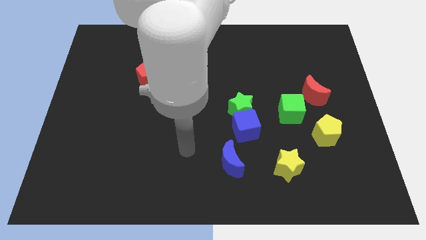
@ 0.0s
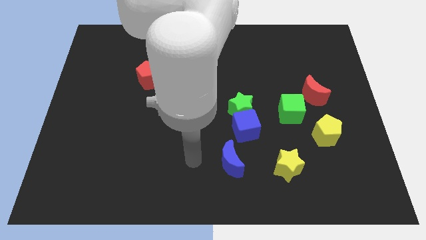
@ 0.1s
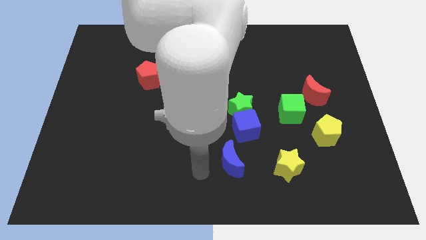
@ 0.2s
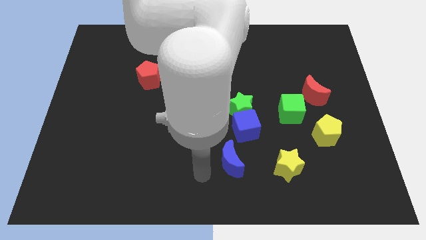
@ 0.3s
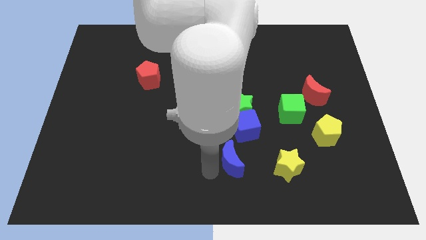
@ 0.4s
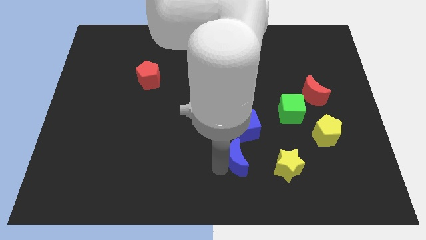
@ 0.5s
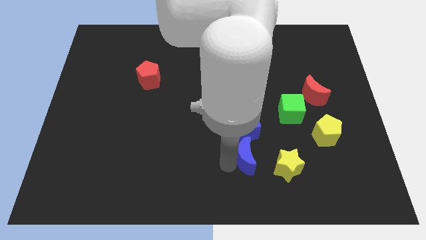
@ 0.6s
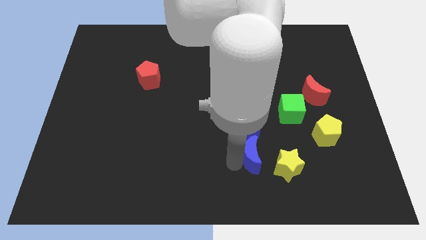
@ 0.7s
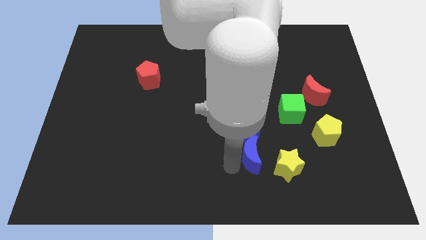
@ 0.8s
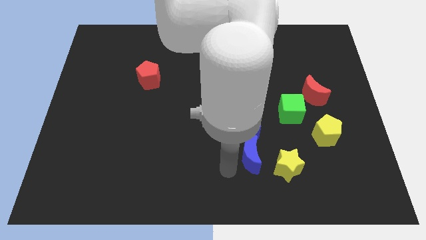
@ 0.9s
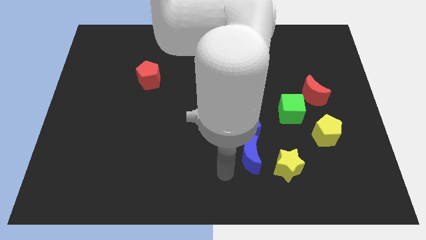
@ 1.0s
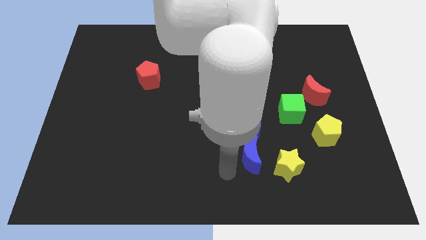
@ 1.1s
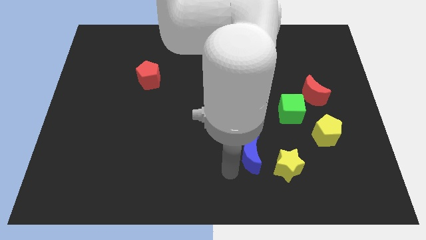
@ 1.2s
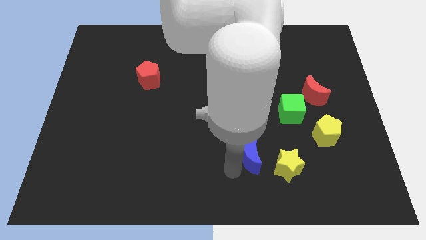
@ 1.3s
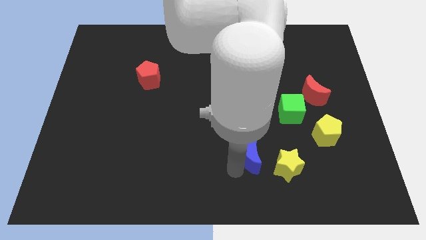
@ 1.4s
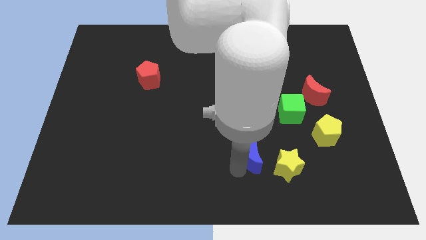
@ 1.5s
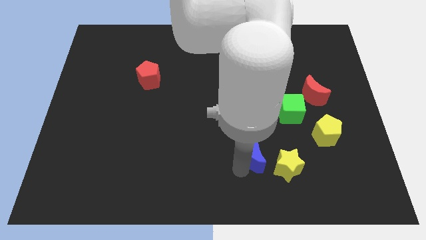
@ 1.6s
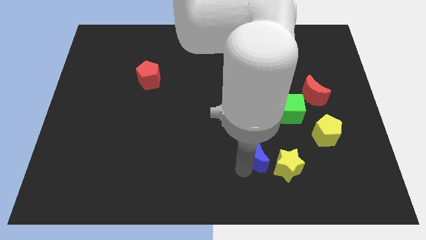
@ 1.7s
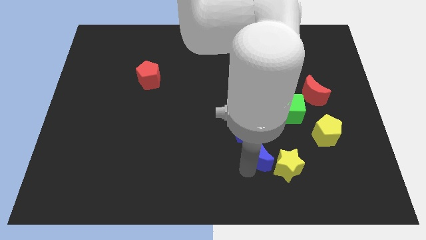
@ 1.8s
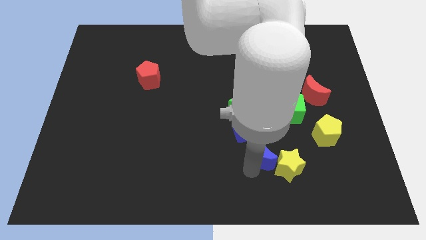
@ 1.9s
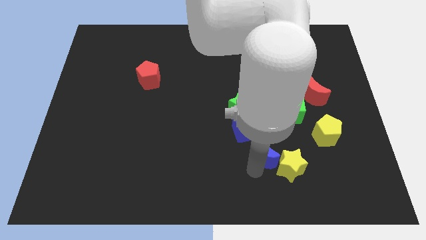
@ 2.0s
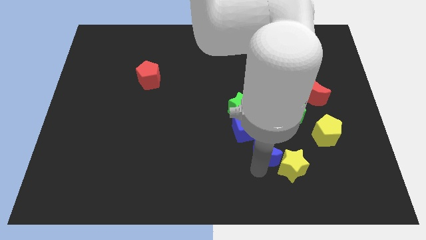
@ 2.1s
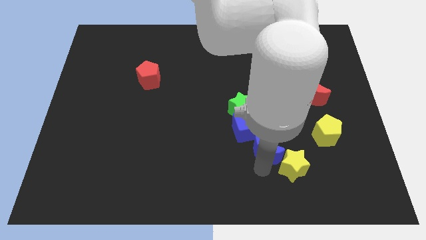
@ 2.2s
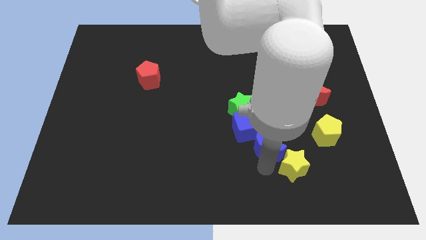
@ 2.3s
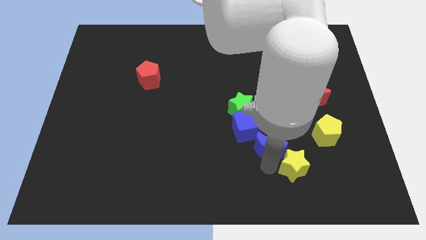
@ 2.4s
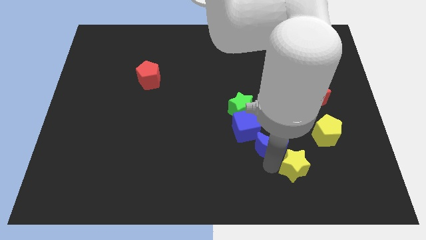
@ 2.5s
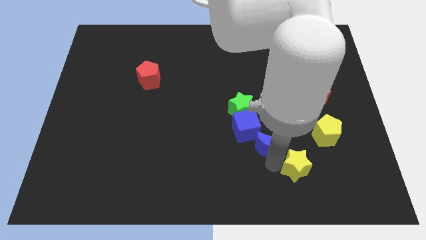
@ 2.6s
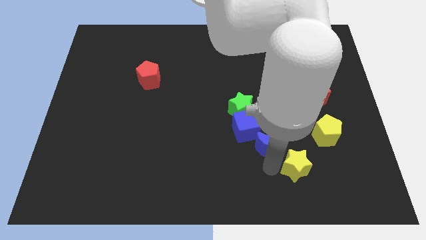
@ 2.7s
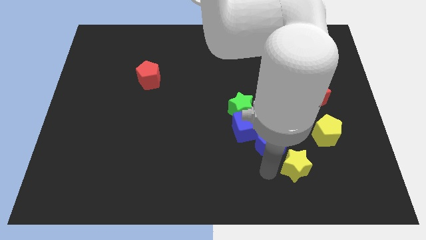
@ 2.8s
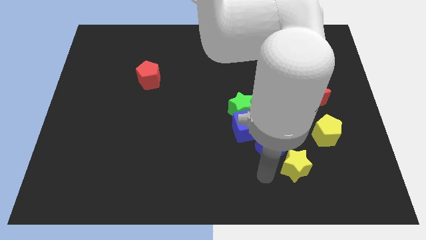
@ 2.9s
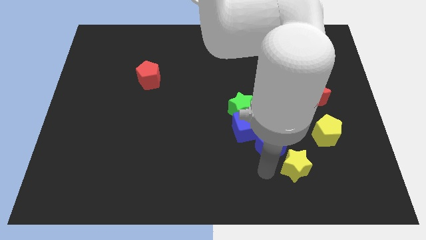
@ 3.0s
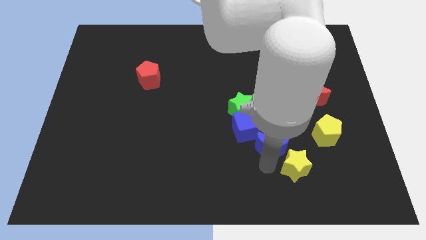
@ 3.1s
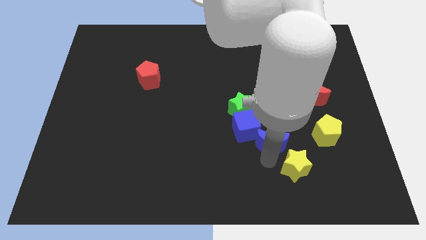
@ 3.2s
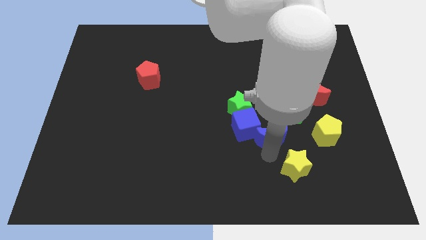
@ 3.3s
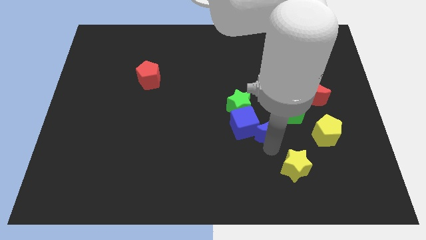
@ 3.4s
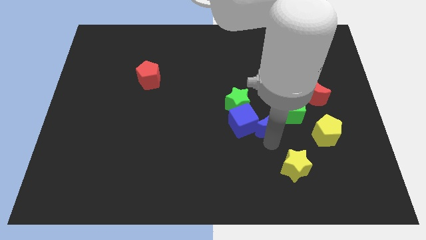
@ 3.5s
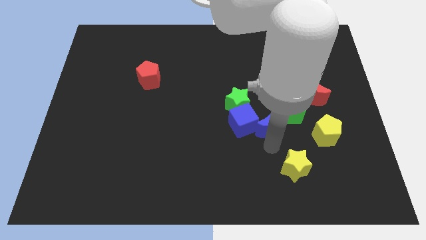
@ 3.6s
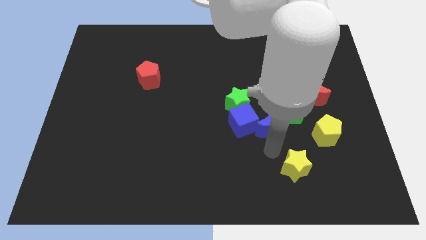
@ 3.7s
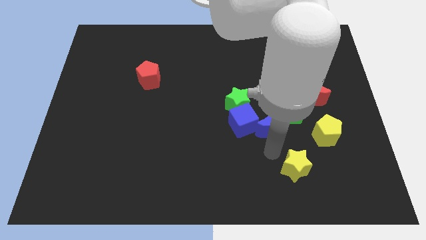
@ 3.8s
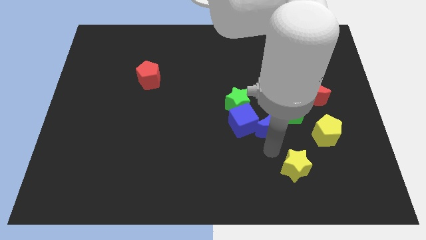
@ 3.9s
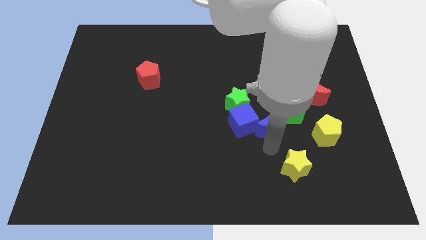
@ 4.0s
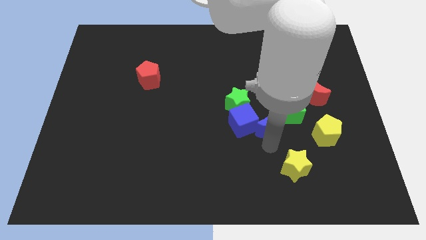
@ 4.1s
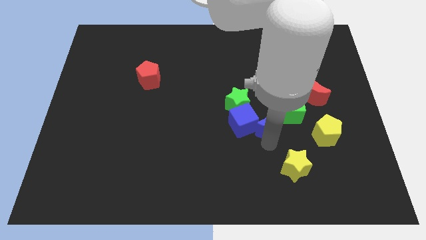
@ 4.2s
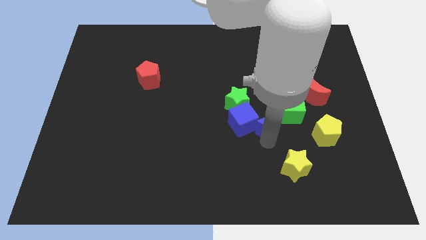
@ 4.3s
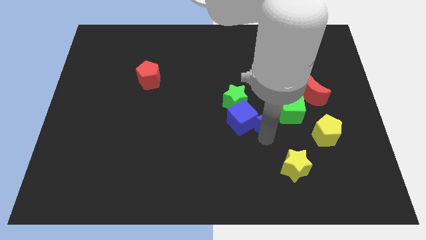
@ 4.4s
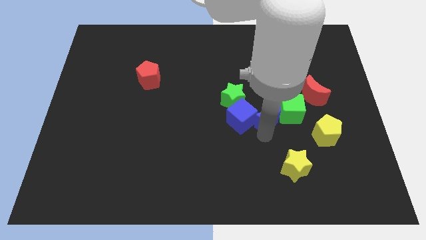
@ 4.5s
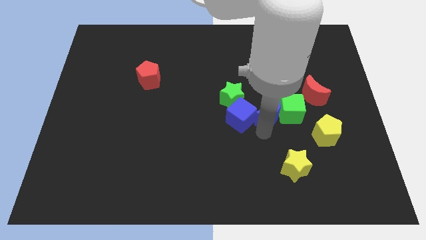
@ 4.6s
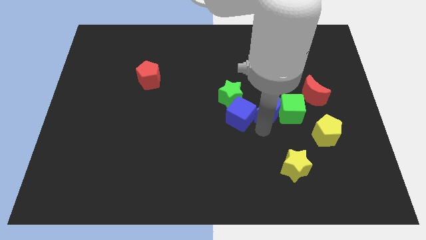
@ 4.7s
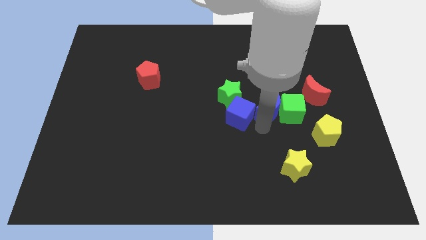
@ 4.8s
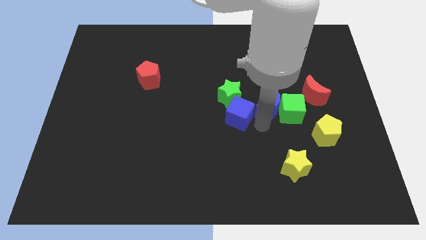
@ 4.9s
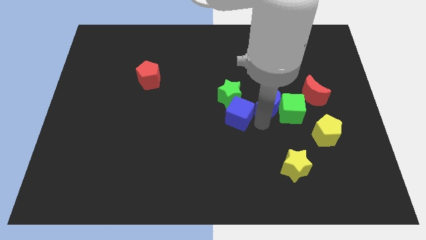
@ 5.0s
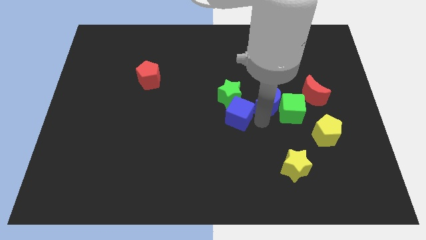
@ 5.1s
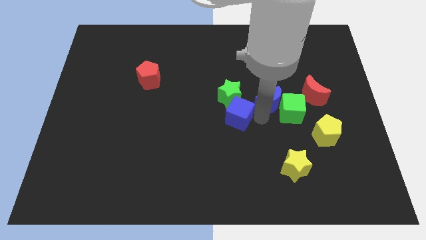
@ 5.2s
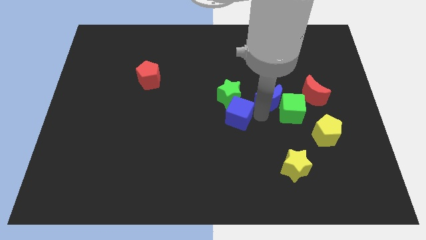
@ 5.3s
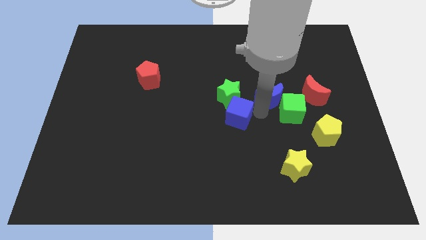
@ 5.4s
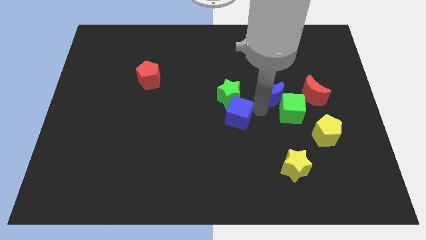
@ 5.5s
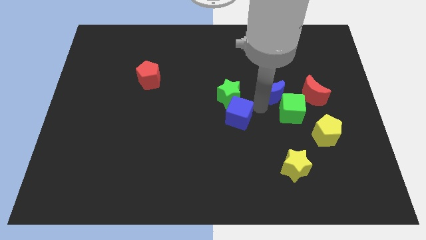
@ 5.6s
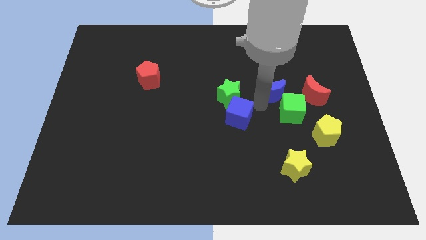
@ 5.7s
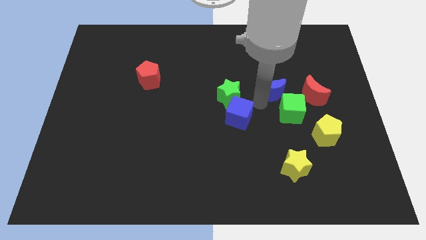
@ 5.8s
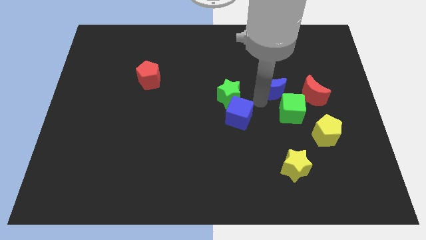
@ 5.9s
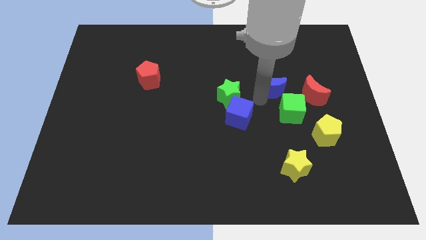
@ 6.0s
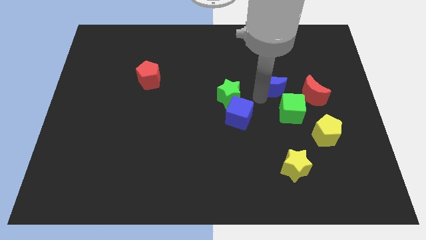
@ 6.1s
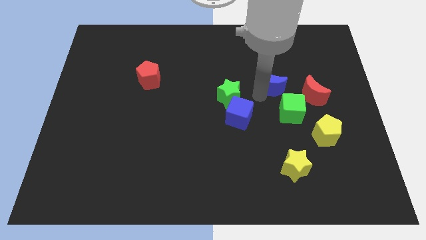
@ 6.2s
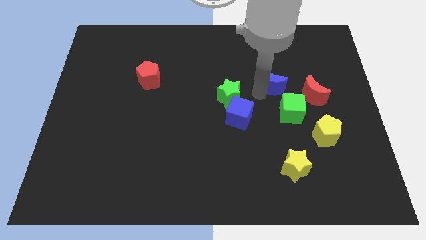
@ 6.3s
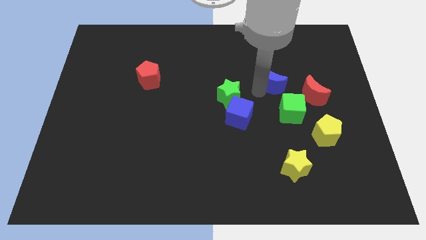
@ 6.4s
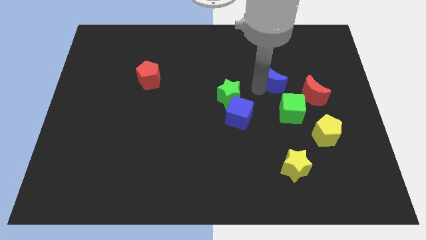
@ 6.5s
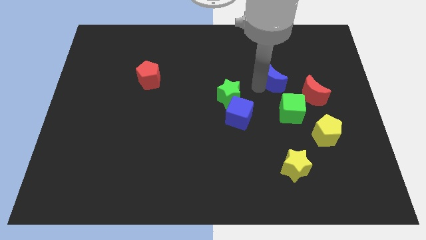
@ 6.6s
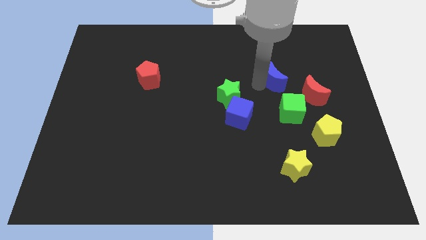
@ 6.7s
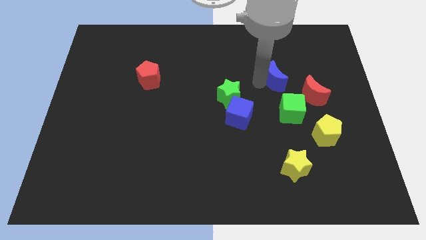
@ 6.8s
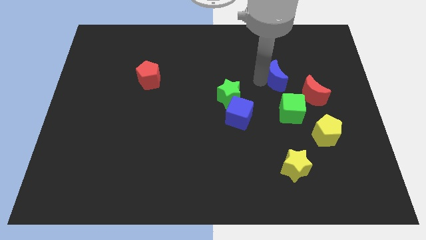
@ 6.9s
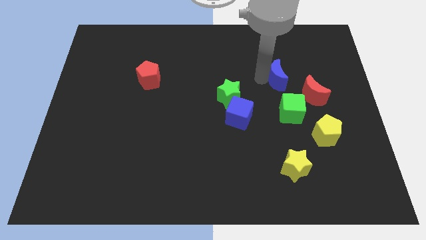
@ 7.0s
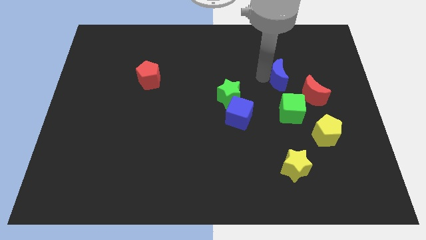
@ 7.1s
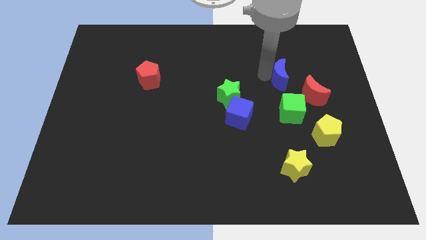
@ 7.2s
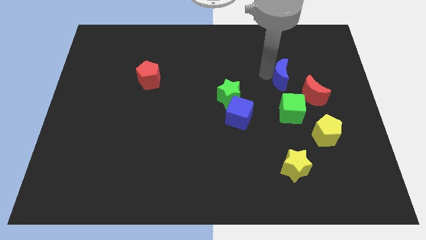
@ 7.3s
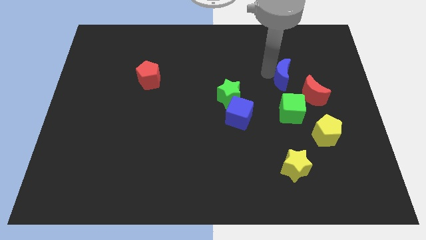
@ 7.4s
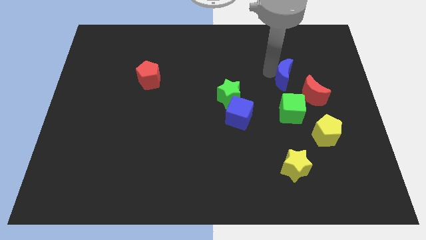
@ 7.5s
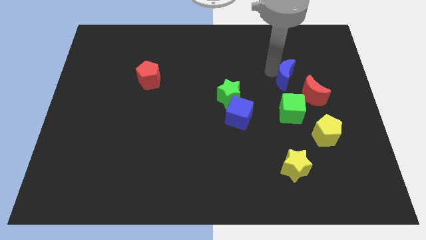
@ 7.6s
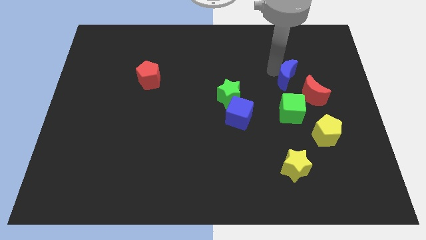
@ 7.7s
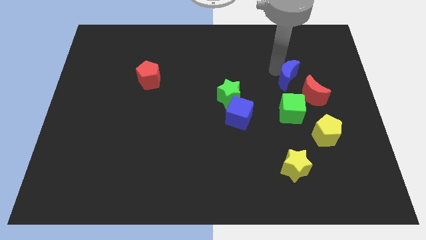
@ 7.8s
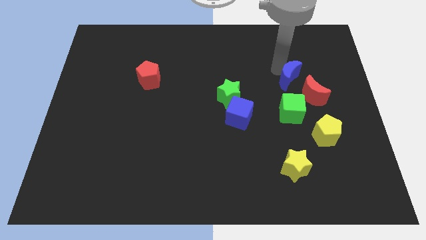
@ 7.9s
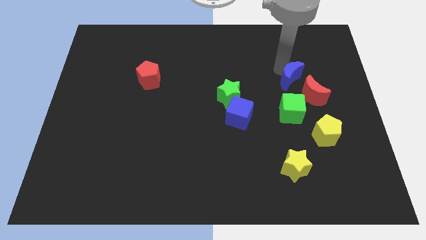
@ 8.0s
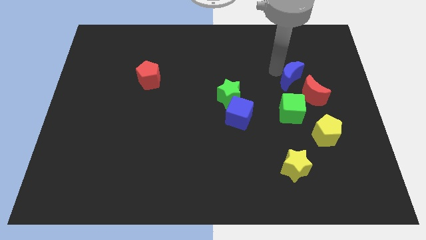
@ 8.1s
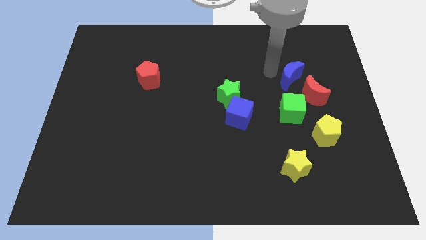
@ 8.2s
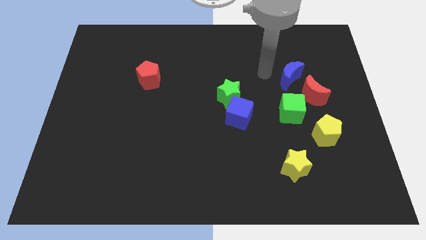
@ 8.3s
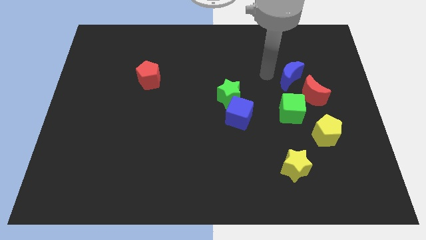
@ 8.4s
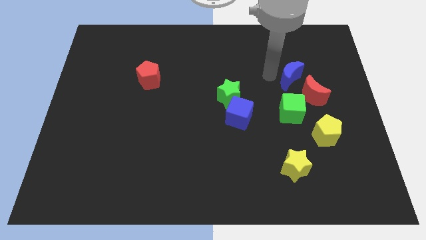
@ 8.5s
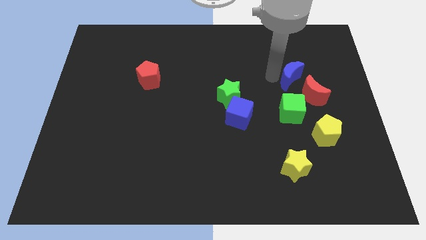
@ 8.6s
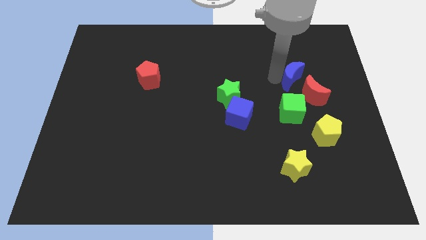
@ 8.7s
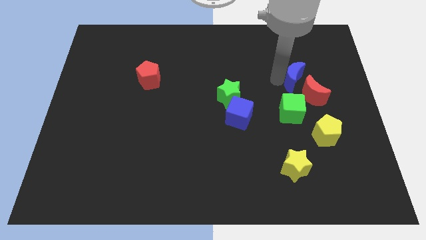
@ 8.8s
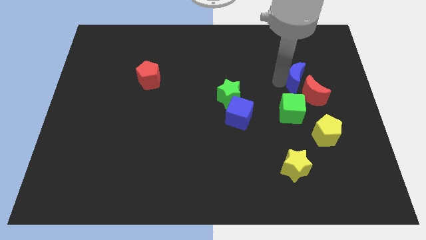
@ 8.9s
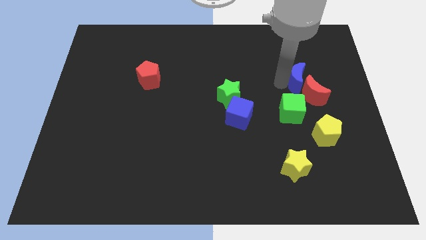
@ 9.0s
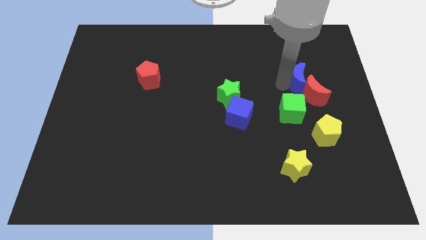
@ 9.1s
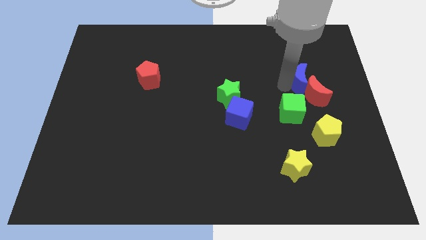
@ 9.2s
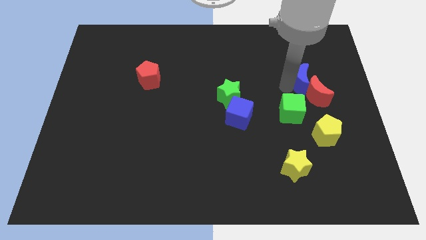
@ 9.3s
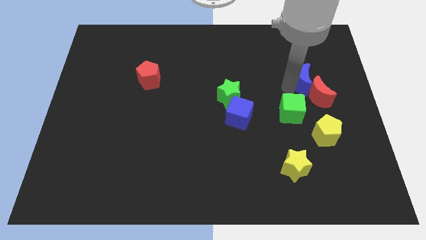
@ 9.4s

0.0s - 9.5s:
slide the blue moon to the top of the yellow pentagon
